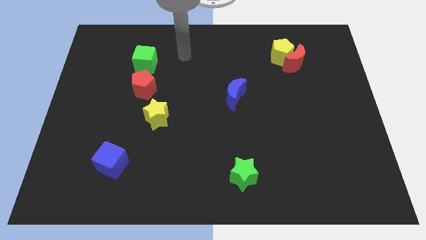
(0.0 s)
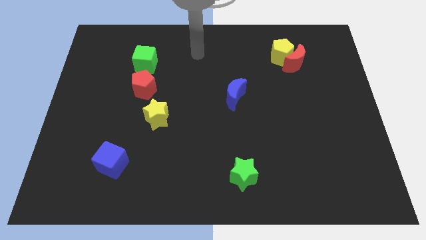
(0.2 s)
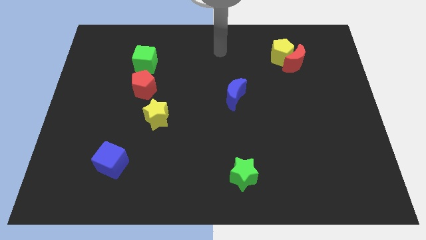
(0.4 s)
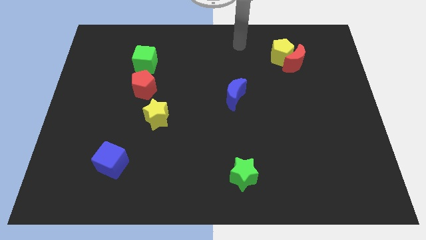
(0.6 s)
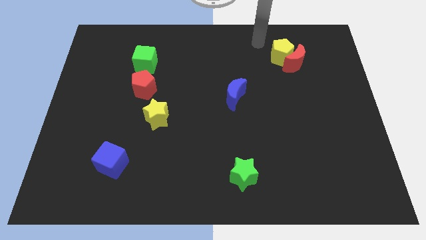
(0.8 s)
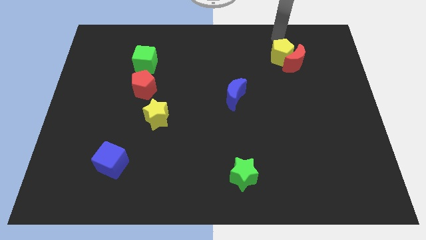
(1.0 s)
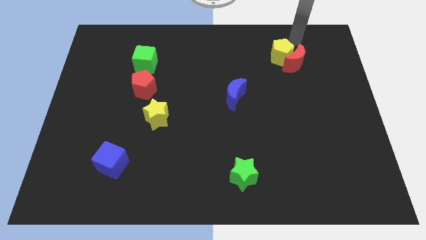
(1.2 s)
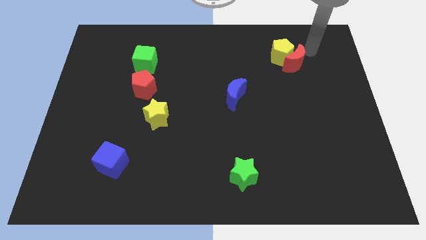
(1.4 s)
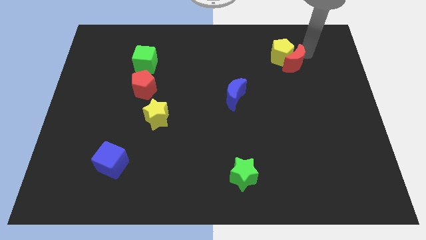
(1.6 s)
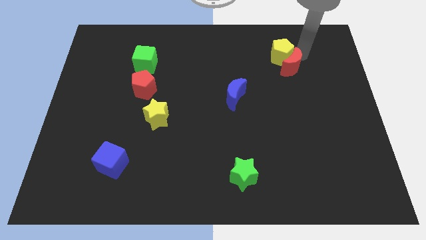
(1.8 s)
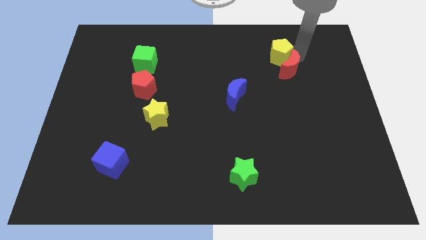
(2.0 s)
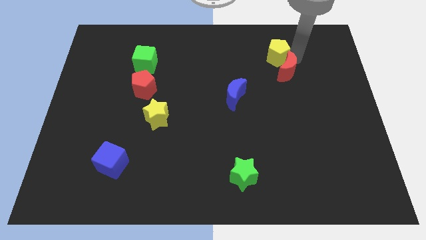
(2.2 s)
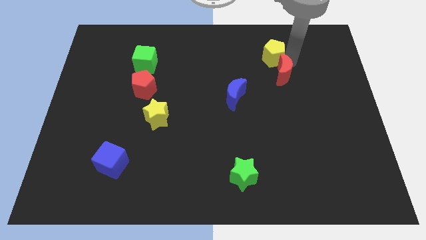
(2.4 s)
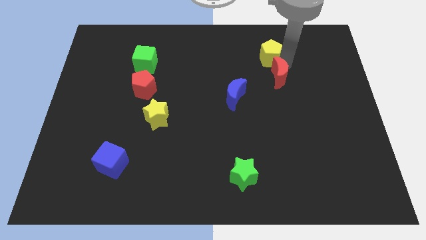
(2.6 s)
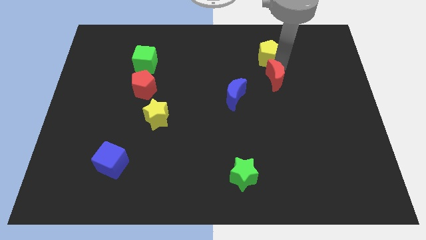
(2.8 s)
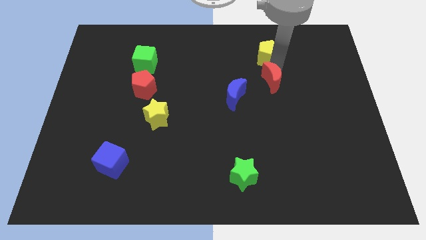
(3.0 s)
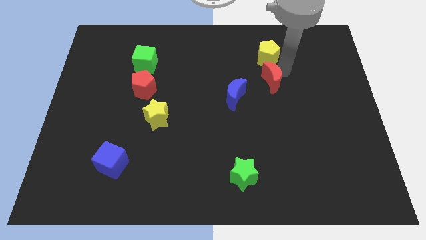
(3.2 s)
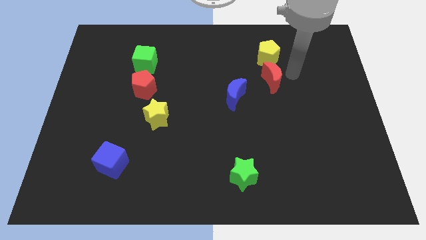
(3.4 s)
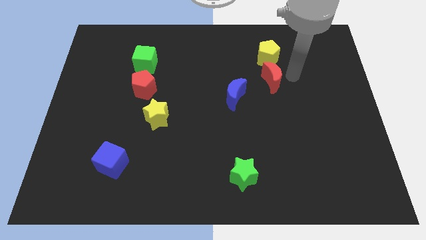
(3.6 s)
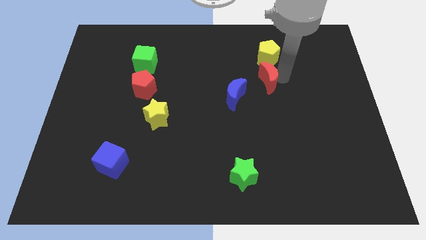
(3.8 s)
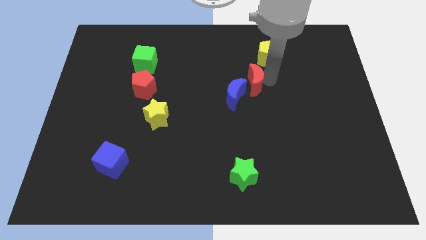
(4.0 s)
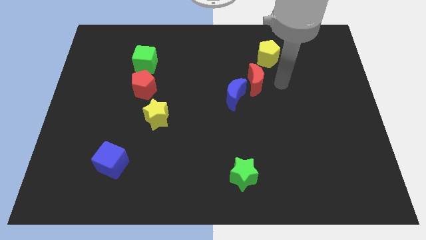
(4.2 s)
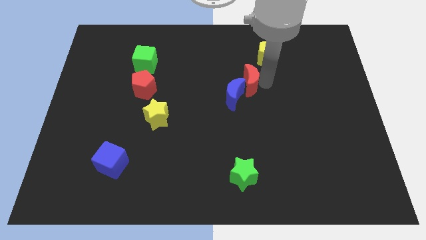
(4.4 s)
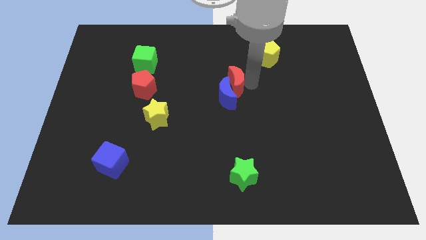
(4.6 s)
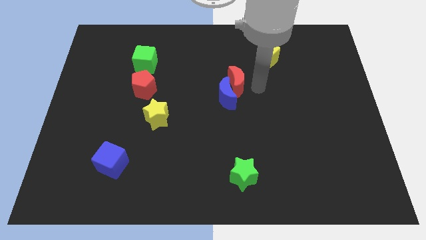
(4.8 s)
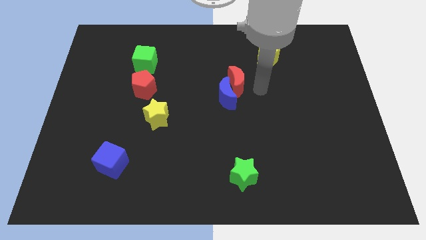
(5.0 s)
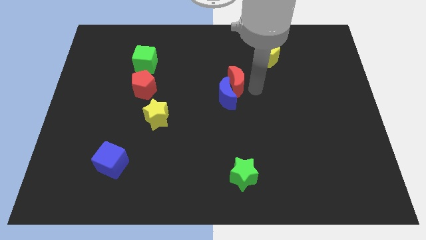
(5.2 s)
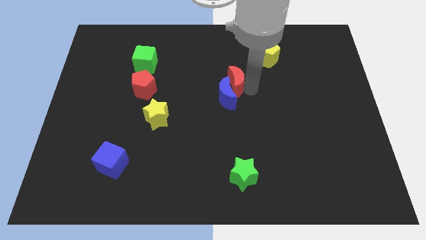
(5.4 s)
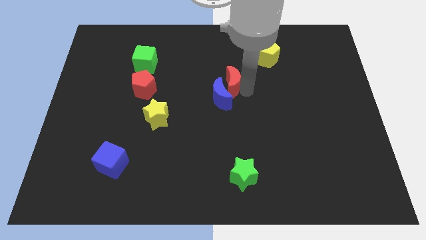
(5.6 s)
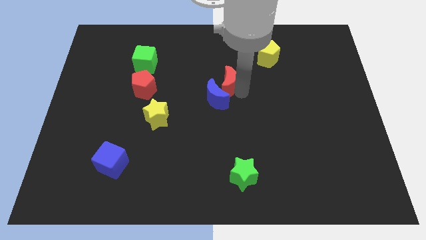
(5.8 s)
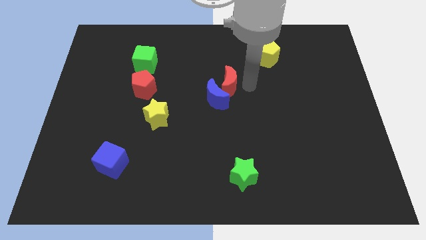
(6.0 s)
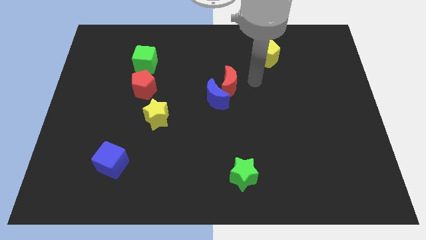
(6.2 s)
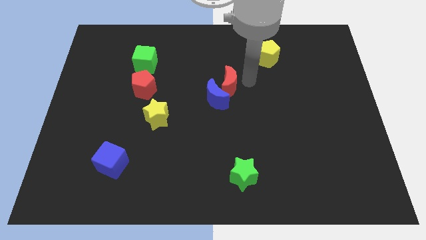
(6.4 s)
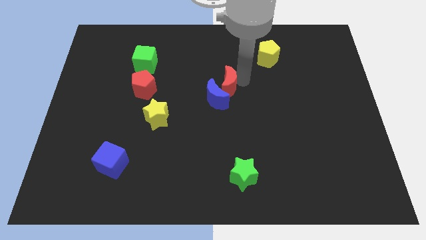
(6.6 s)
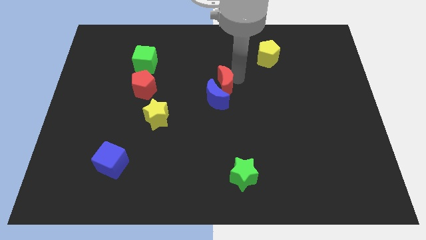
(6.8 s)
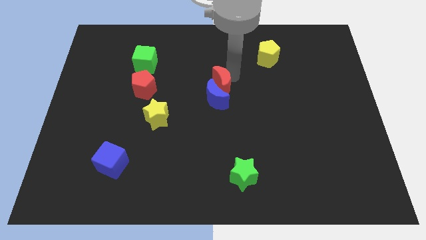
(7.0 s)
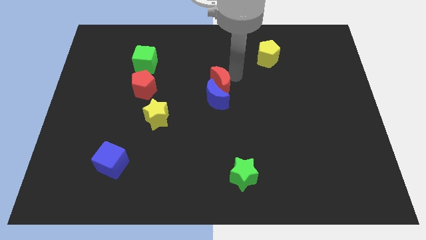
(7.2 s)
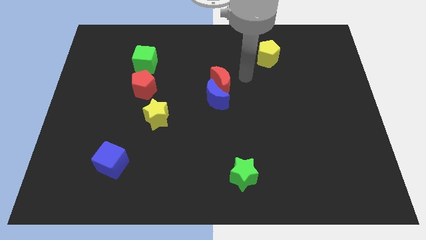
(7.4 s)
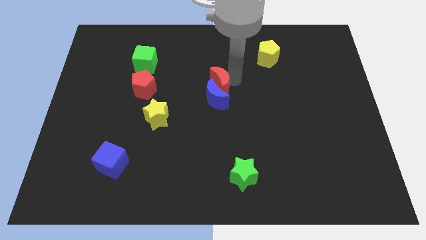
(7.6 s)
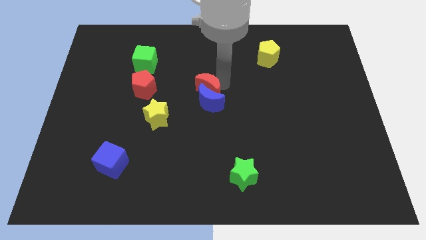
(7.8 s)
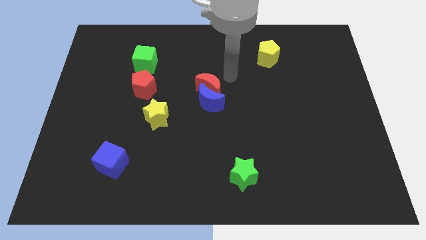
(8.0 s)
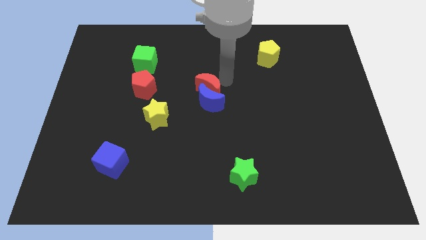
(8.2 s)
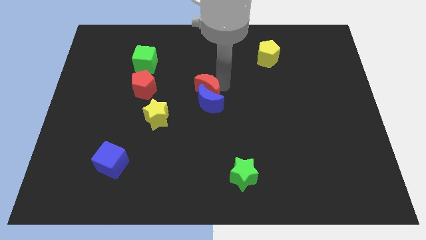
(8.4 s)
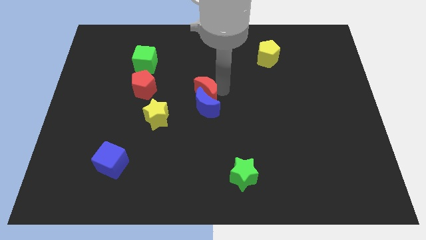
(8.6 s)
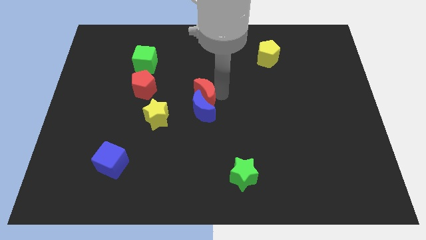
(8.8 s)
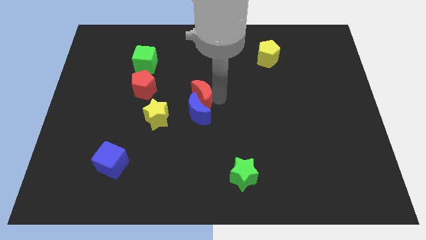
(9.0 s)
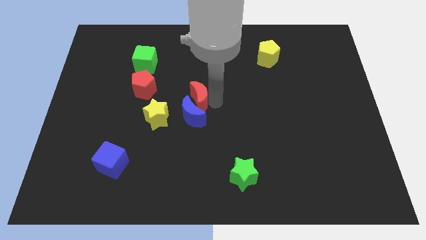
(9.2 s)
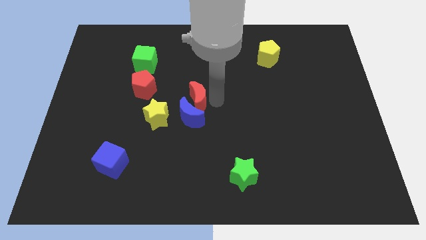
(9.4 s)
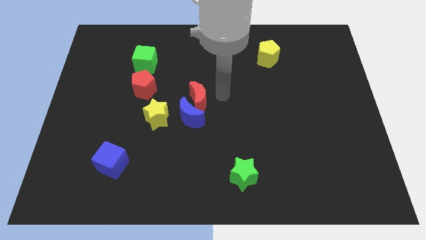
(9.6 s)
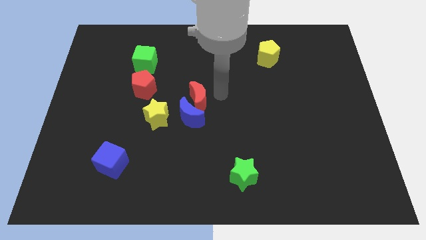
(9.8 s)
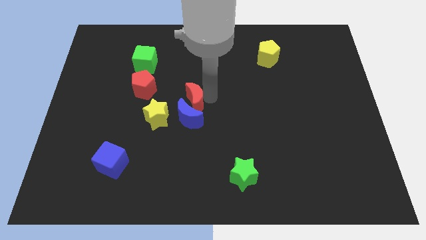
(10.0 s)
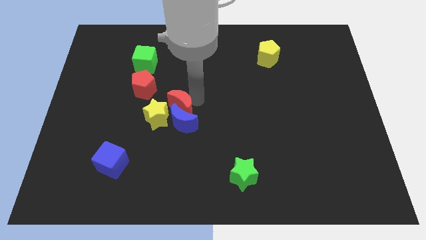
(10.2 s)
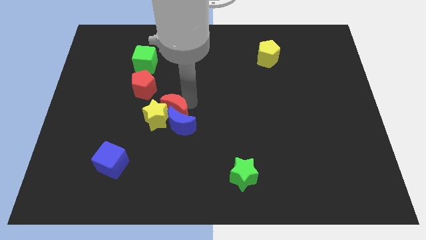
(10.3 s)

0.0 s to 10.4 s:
move the red moon close to the yellow star

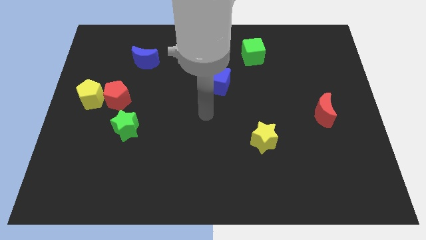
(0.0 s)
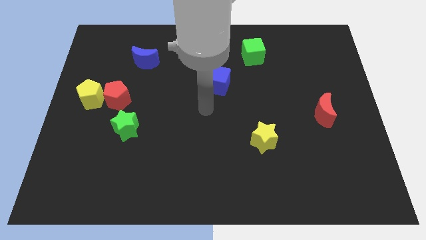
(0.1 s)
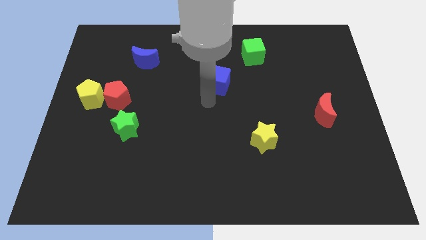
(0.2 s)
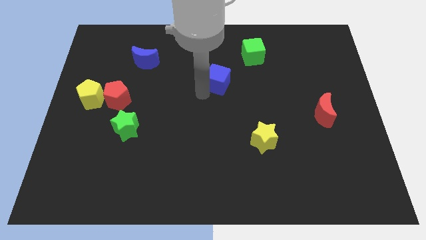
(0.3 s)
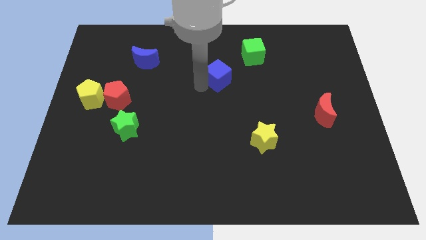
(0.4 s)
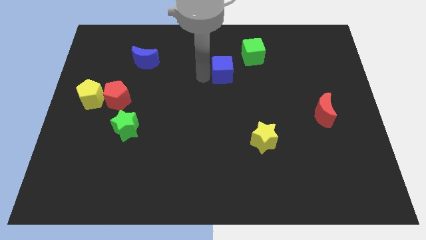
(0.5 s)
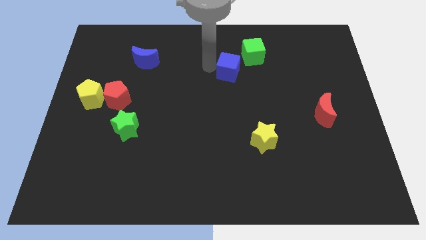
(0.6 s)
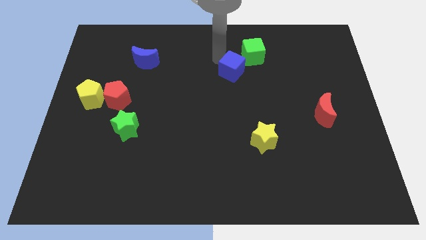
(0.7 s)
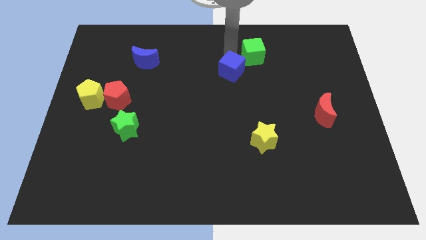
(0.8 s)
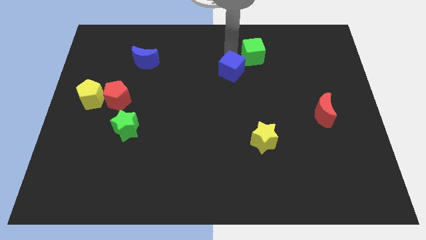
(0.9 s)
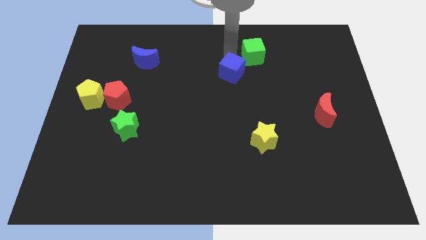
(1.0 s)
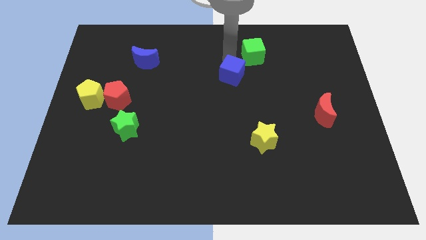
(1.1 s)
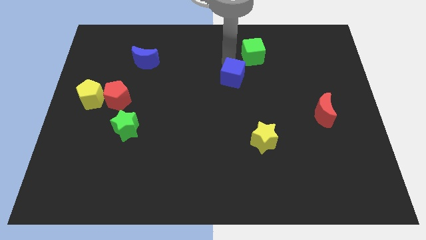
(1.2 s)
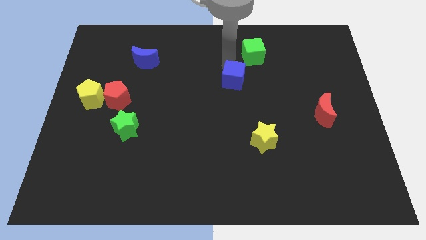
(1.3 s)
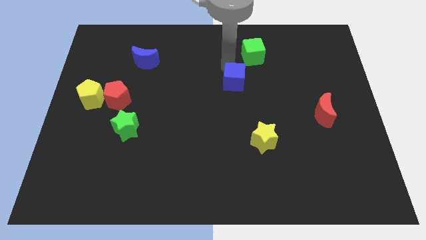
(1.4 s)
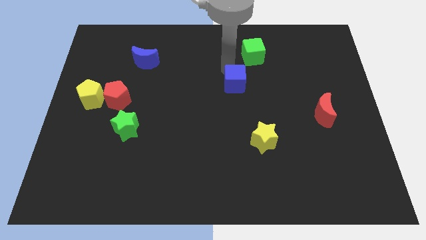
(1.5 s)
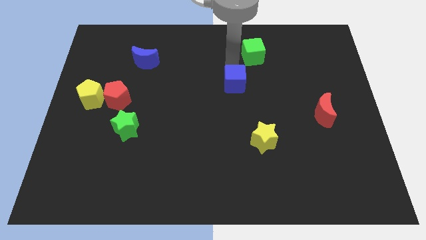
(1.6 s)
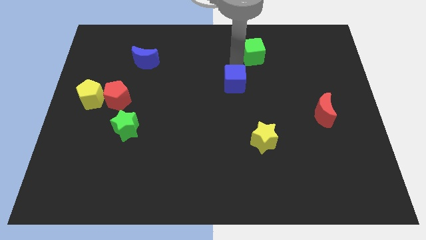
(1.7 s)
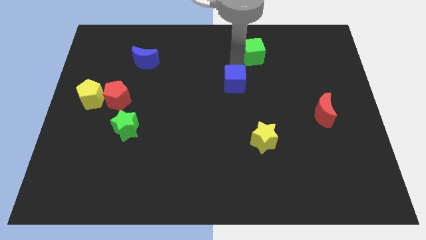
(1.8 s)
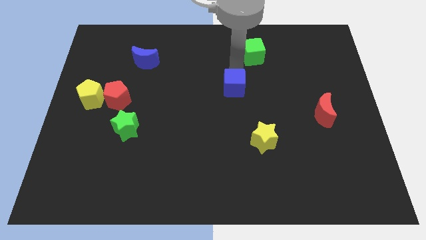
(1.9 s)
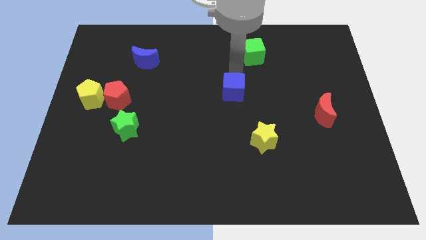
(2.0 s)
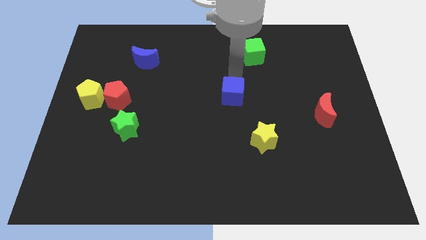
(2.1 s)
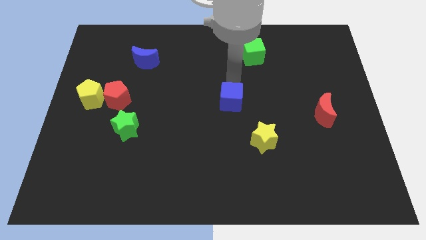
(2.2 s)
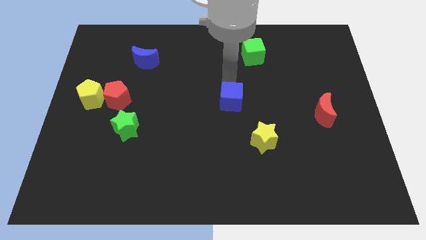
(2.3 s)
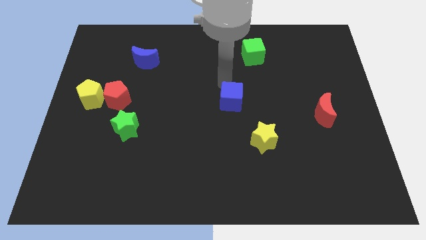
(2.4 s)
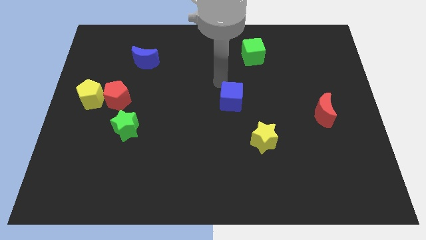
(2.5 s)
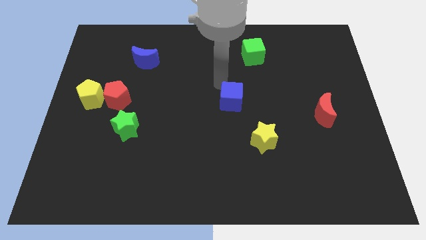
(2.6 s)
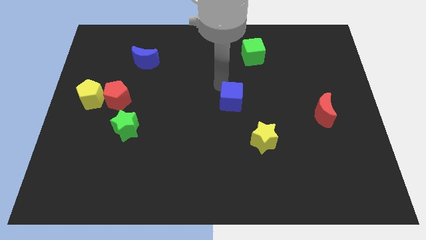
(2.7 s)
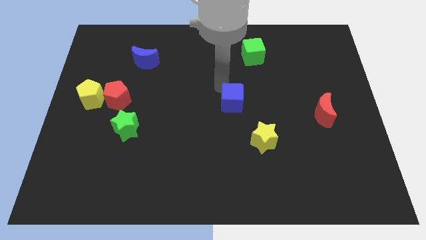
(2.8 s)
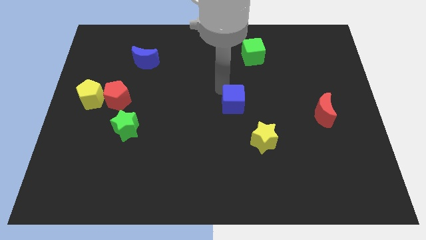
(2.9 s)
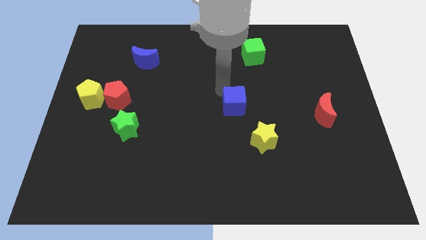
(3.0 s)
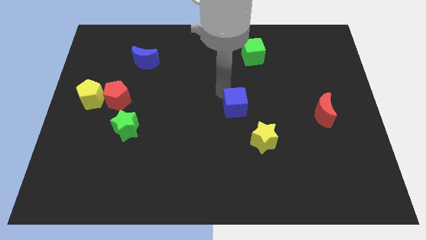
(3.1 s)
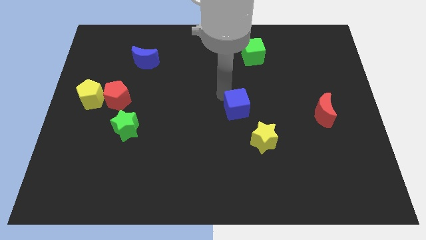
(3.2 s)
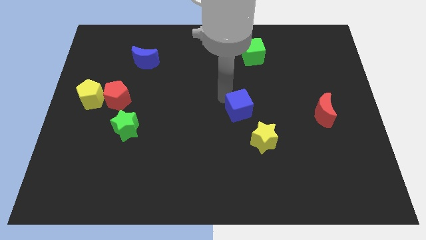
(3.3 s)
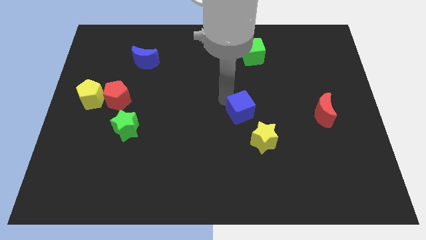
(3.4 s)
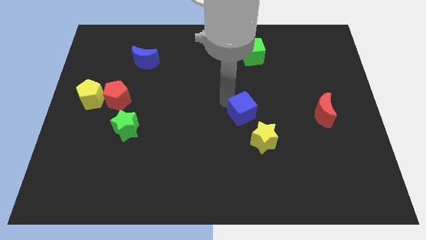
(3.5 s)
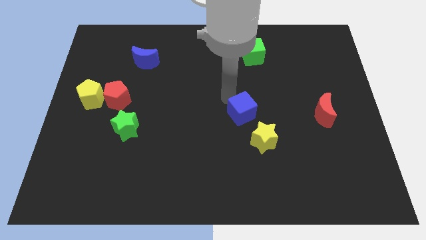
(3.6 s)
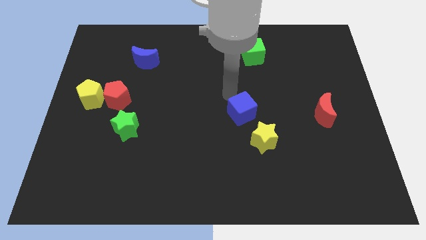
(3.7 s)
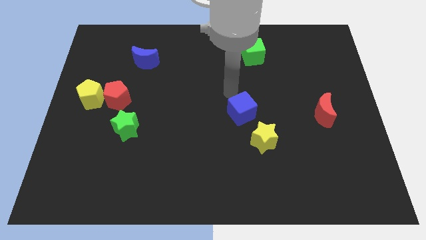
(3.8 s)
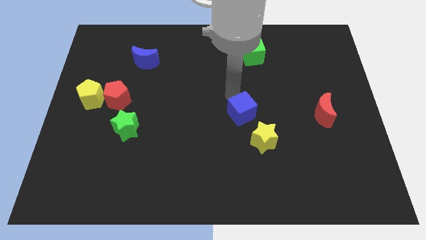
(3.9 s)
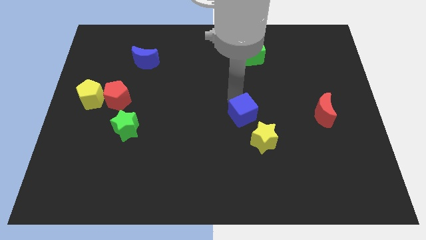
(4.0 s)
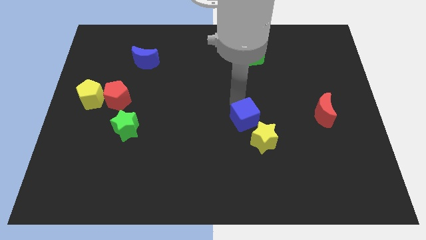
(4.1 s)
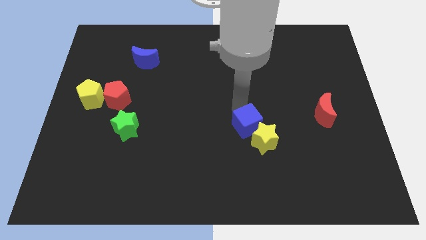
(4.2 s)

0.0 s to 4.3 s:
push the blue cube next to the yellow star
